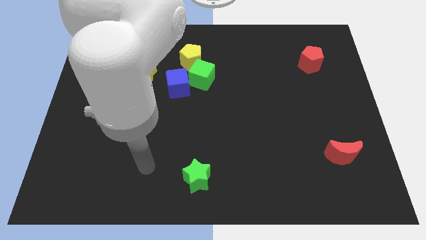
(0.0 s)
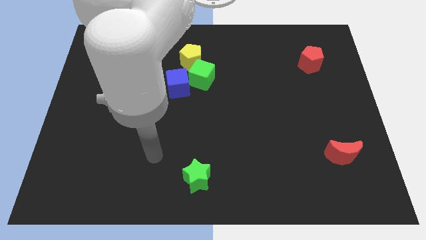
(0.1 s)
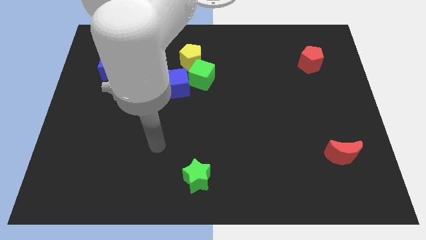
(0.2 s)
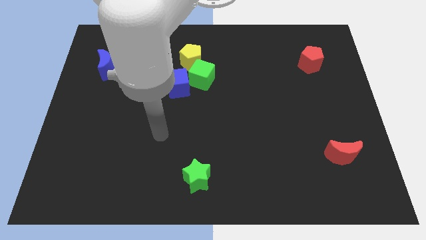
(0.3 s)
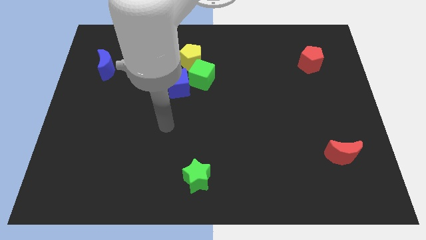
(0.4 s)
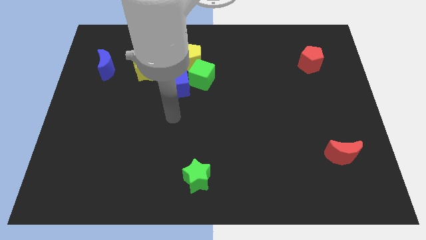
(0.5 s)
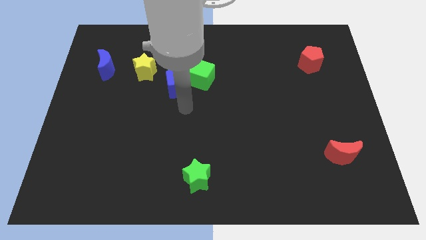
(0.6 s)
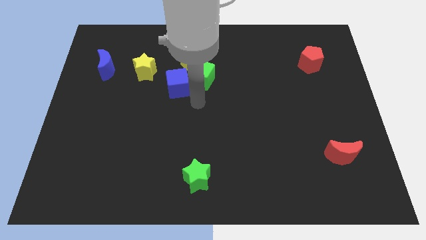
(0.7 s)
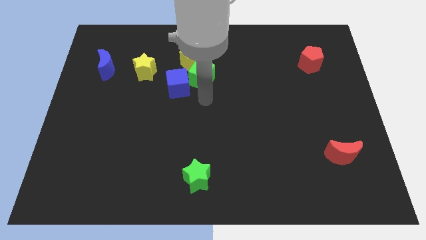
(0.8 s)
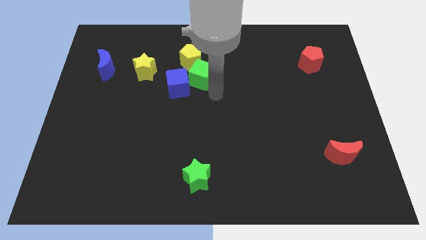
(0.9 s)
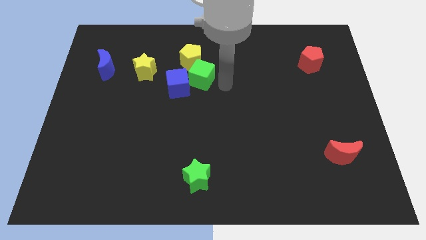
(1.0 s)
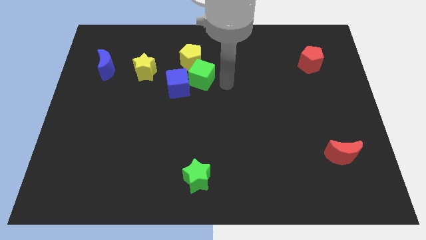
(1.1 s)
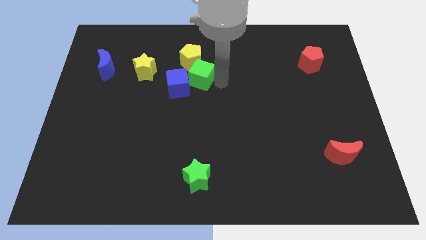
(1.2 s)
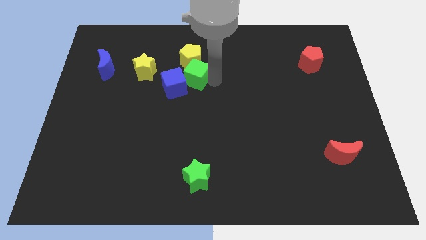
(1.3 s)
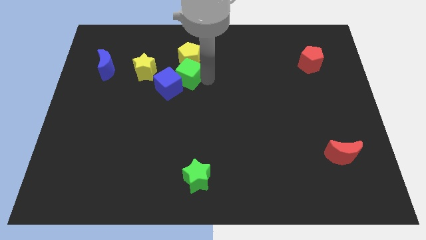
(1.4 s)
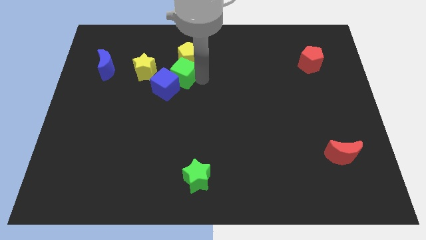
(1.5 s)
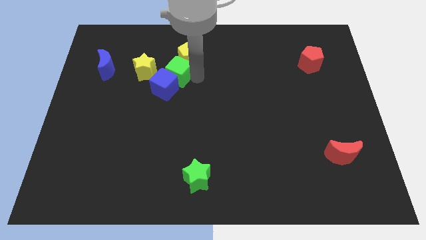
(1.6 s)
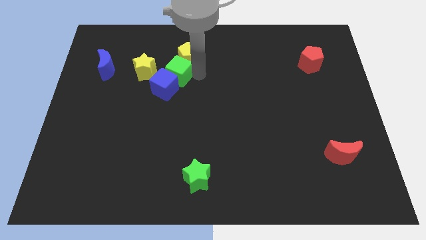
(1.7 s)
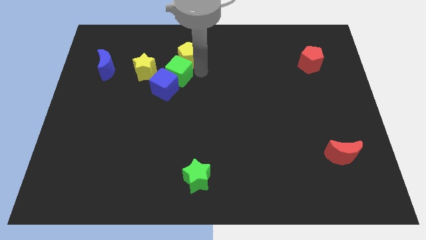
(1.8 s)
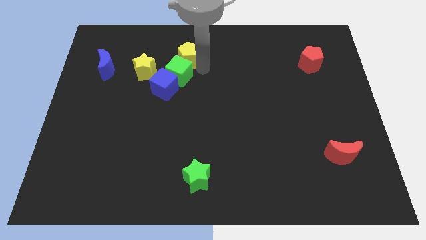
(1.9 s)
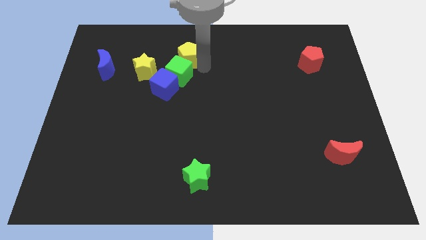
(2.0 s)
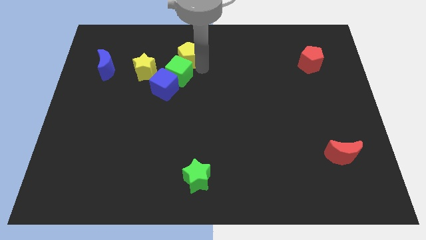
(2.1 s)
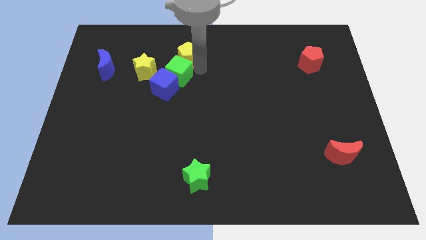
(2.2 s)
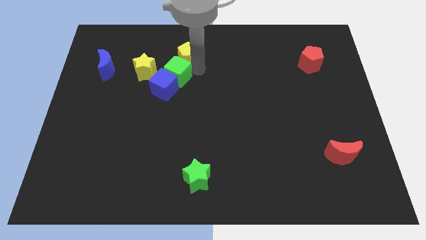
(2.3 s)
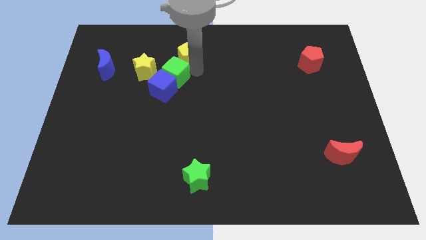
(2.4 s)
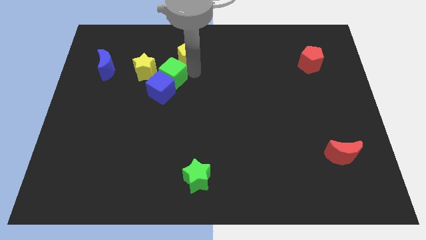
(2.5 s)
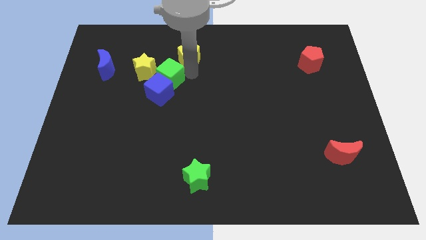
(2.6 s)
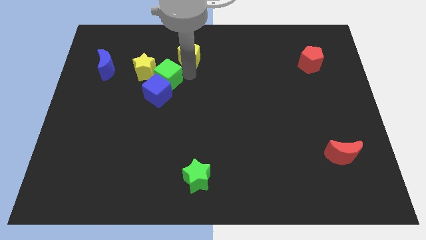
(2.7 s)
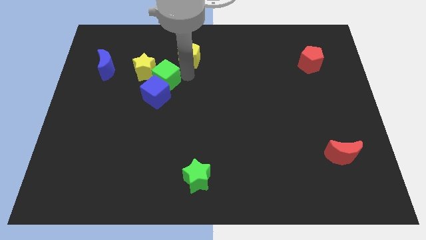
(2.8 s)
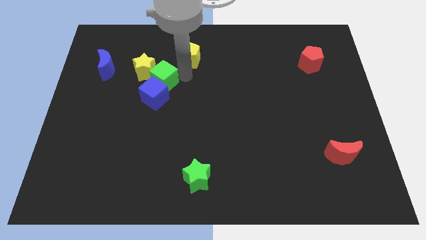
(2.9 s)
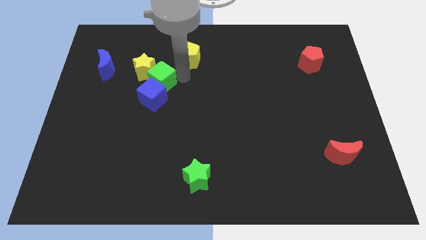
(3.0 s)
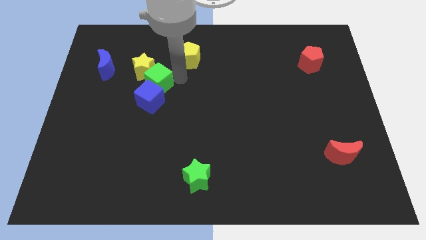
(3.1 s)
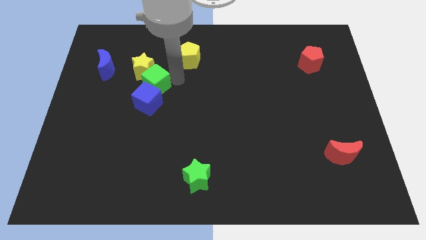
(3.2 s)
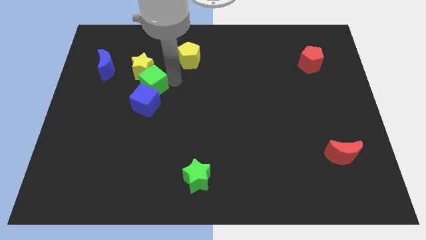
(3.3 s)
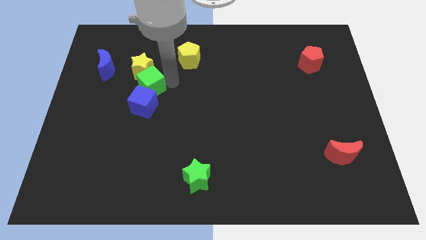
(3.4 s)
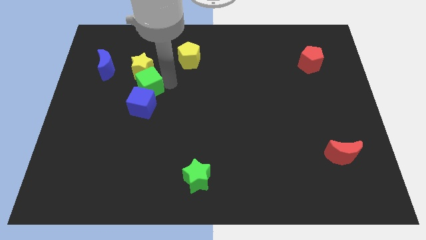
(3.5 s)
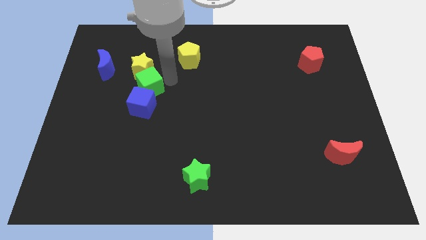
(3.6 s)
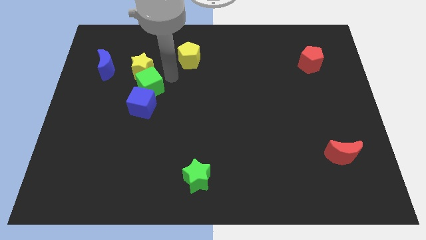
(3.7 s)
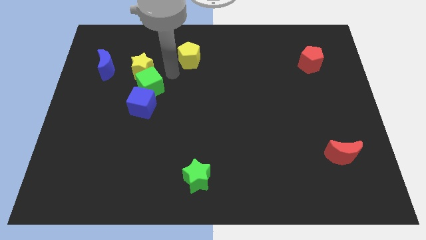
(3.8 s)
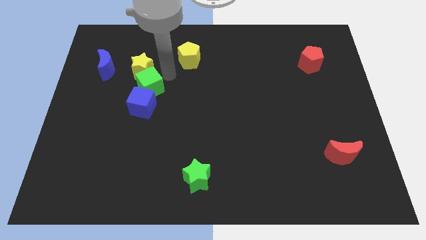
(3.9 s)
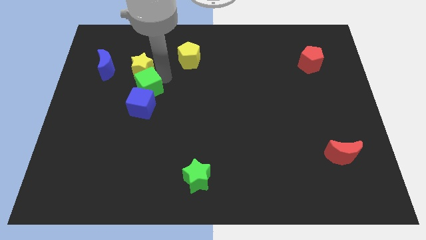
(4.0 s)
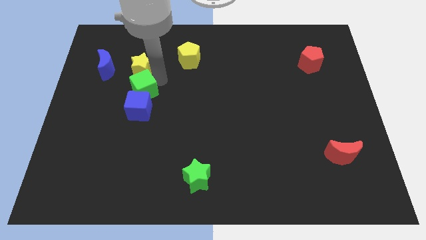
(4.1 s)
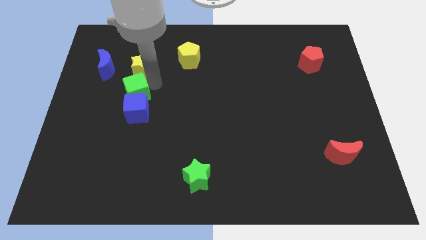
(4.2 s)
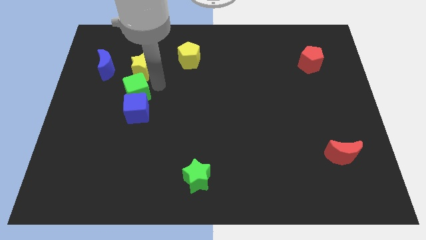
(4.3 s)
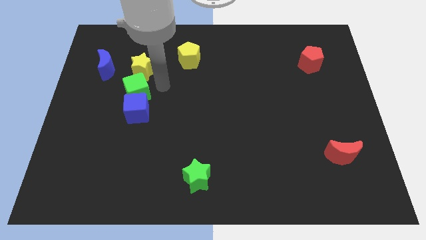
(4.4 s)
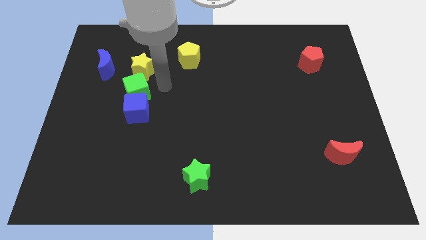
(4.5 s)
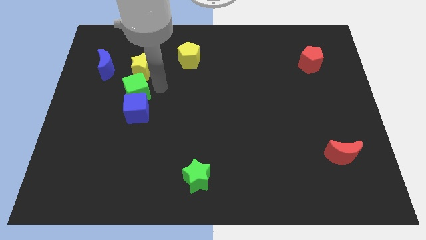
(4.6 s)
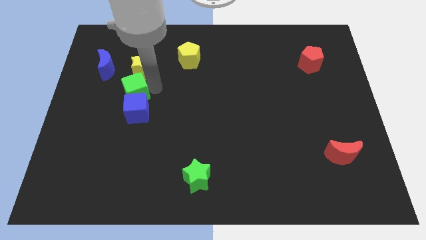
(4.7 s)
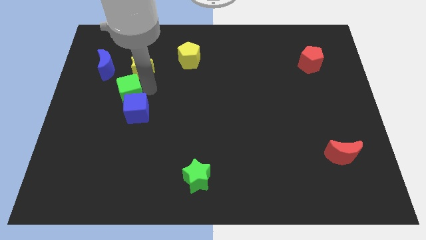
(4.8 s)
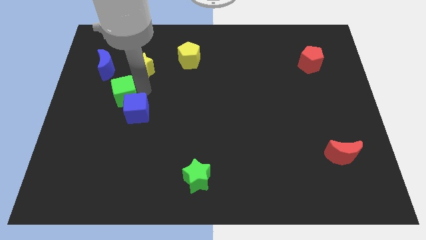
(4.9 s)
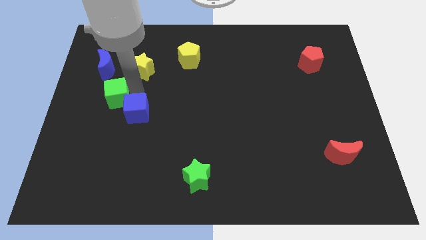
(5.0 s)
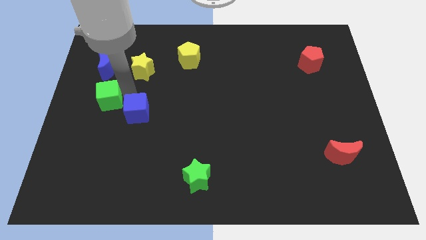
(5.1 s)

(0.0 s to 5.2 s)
push the green cube to the left side of the board

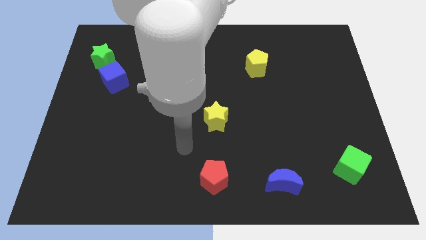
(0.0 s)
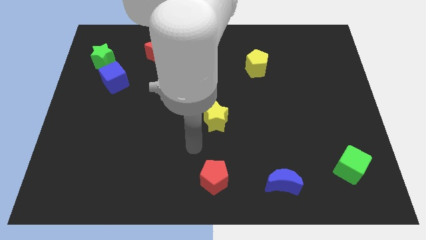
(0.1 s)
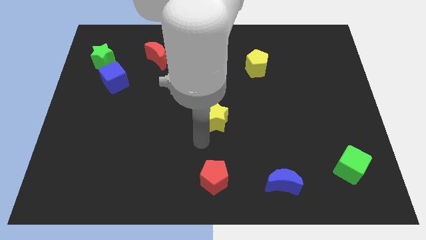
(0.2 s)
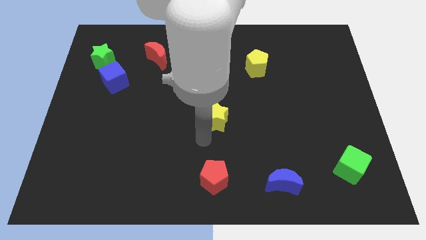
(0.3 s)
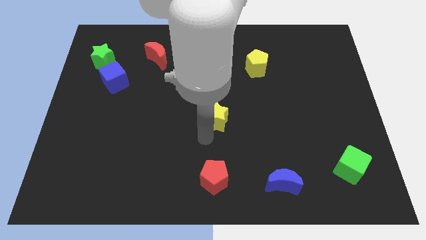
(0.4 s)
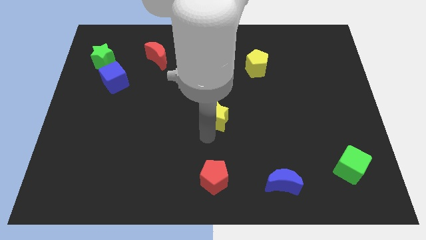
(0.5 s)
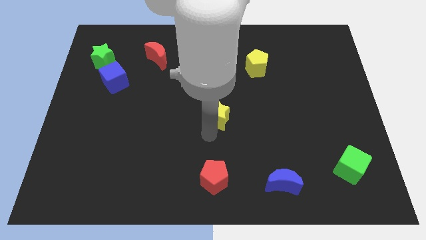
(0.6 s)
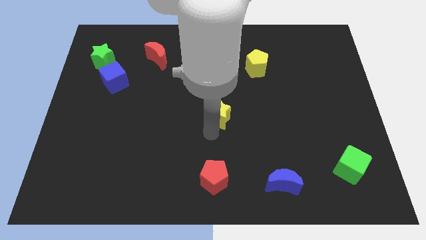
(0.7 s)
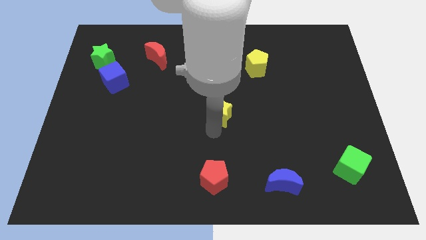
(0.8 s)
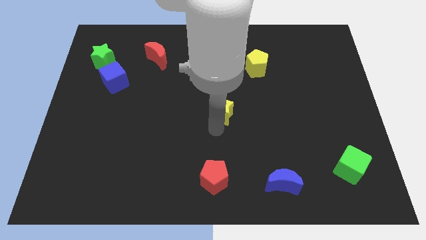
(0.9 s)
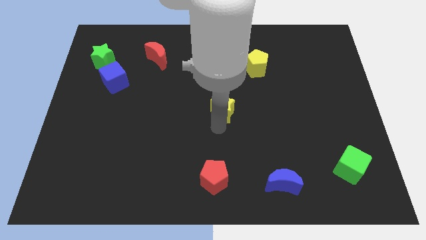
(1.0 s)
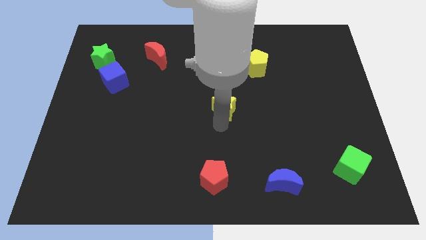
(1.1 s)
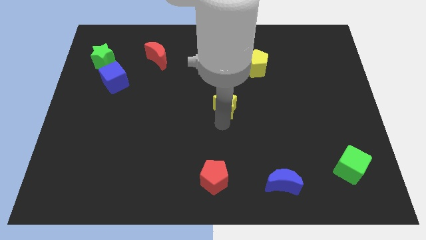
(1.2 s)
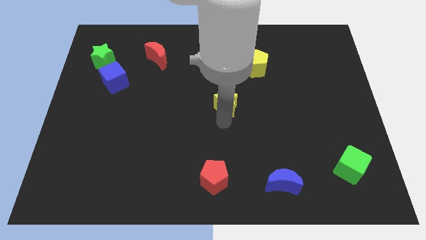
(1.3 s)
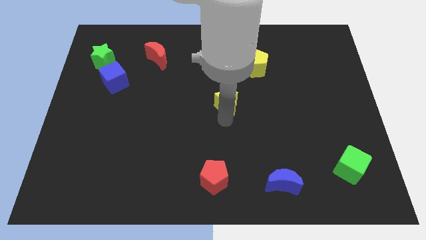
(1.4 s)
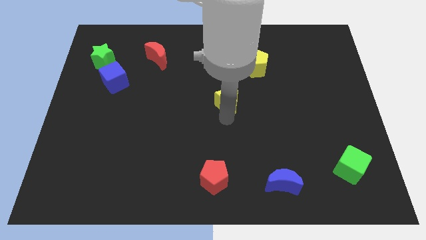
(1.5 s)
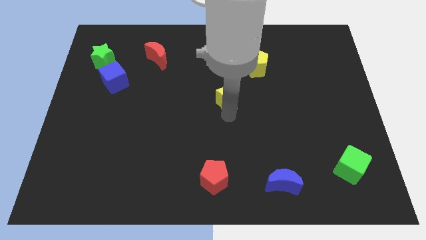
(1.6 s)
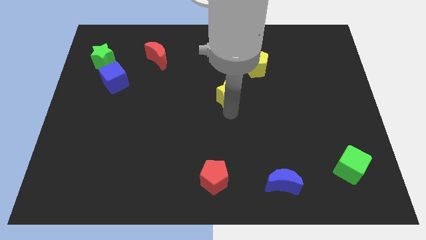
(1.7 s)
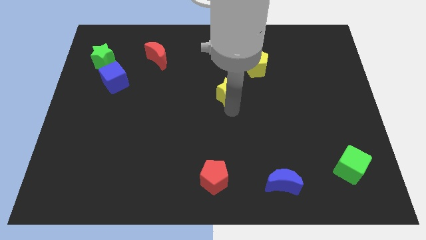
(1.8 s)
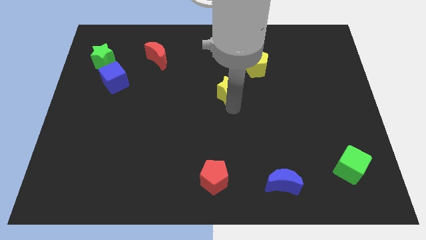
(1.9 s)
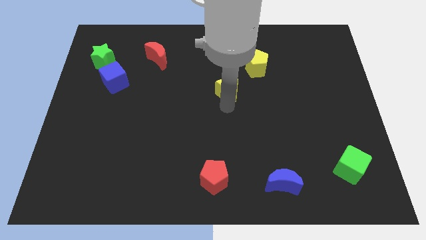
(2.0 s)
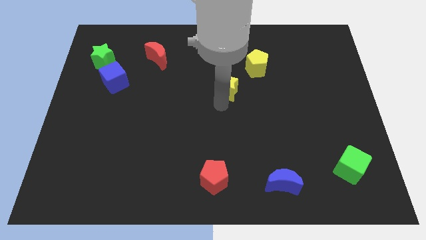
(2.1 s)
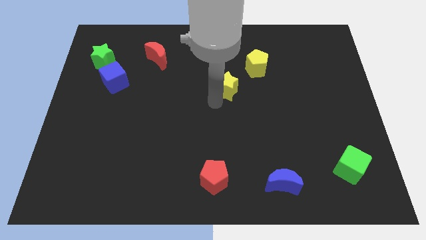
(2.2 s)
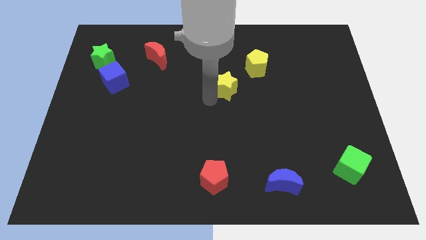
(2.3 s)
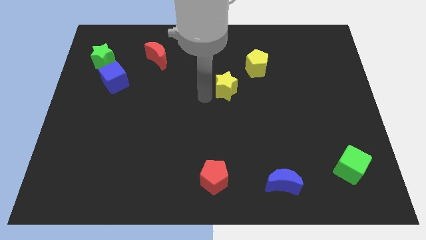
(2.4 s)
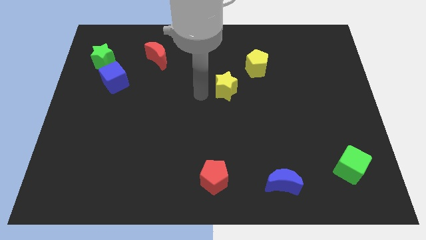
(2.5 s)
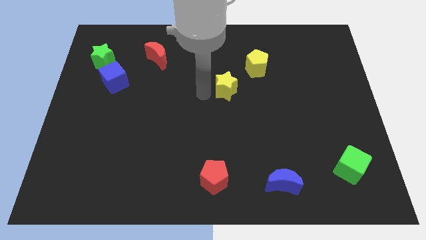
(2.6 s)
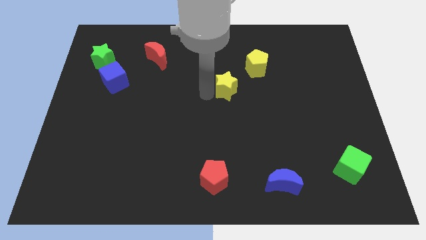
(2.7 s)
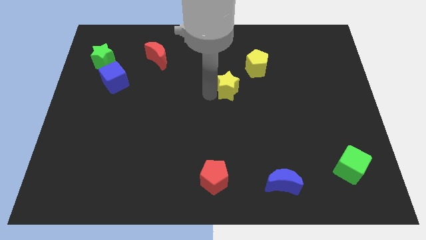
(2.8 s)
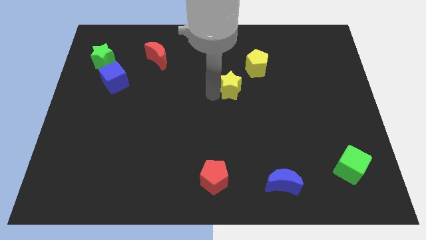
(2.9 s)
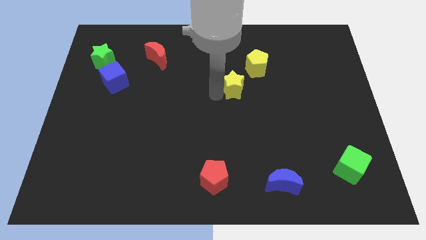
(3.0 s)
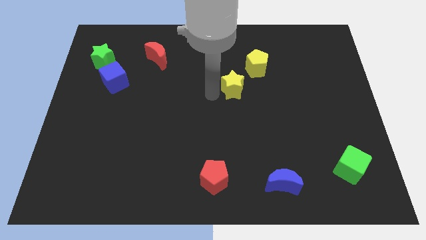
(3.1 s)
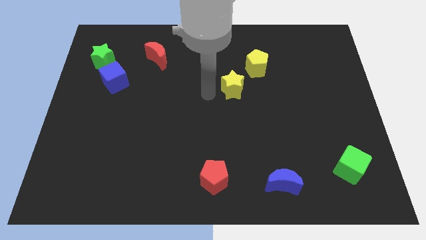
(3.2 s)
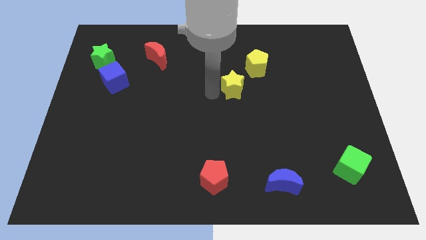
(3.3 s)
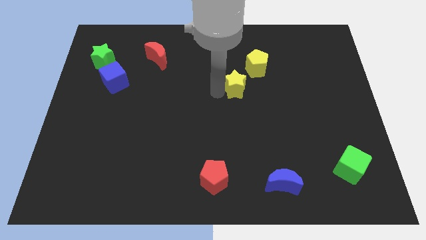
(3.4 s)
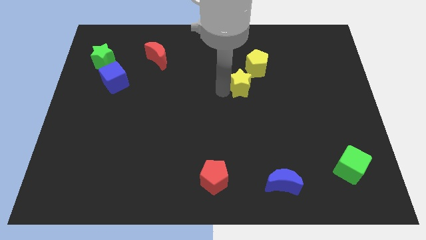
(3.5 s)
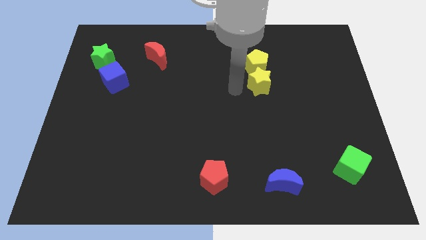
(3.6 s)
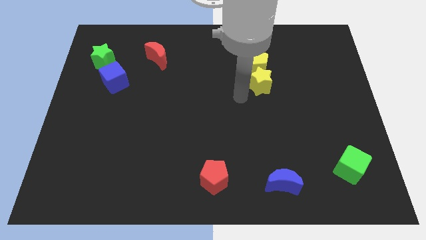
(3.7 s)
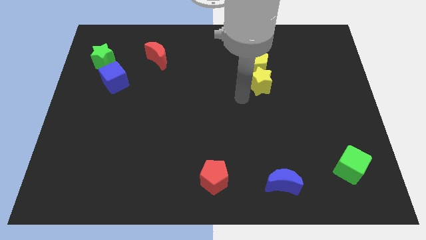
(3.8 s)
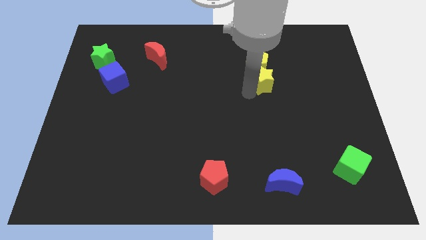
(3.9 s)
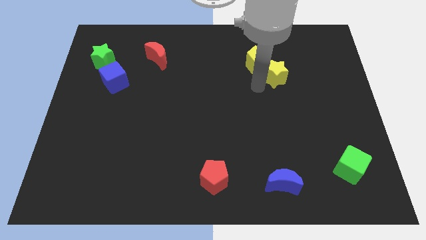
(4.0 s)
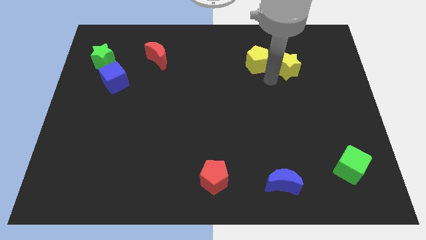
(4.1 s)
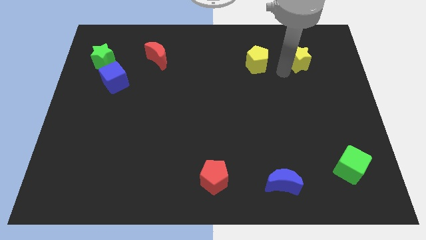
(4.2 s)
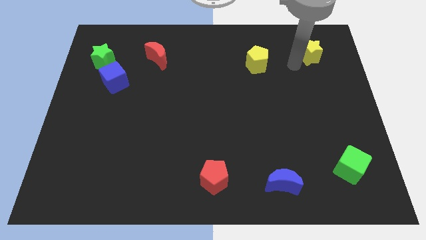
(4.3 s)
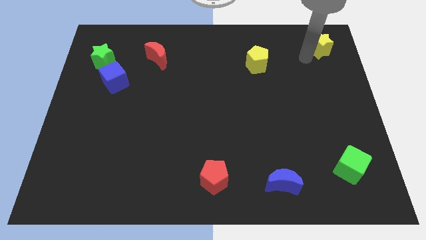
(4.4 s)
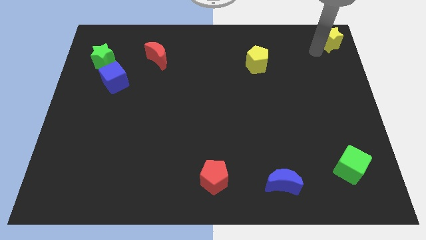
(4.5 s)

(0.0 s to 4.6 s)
put the yellow star to the top right of the board
